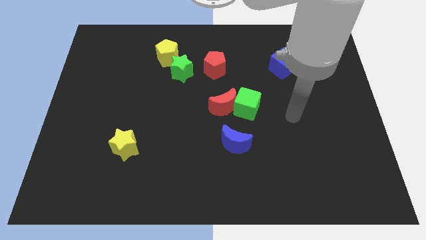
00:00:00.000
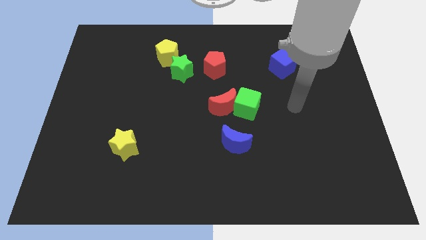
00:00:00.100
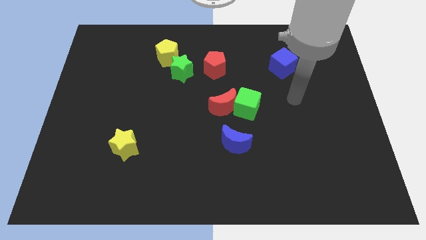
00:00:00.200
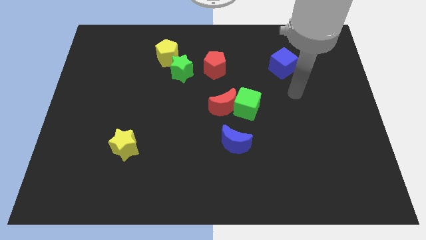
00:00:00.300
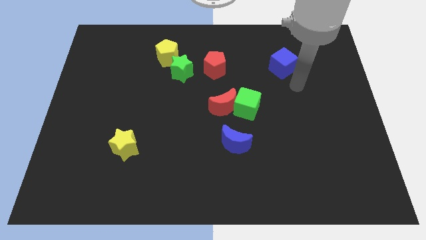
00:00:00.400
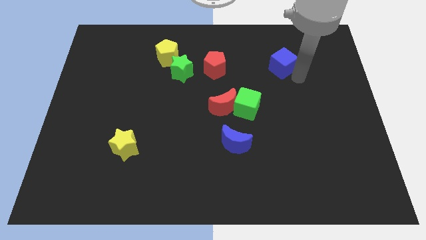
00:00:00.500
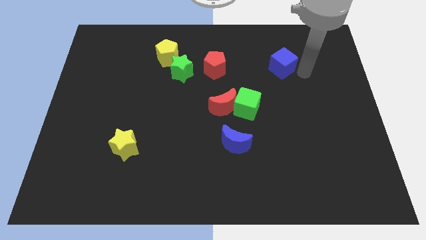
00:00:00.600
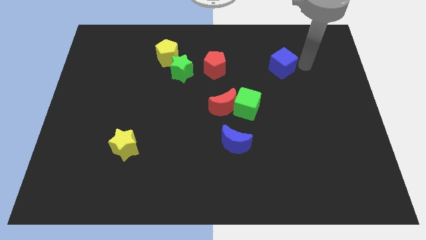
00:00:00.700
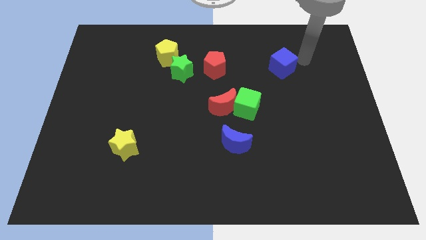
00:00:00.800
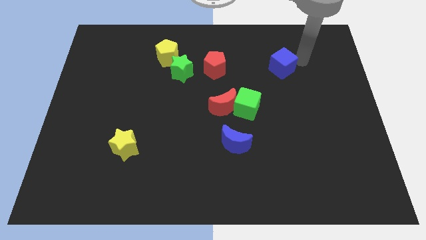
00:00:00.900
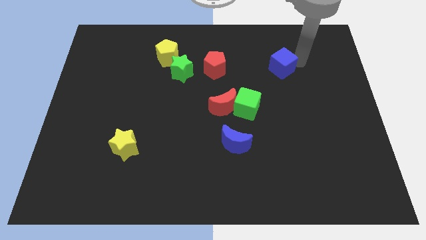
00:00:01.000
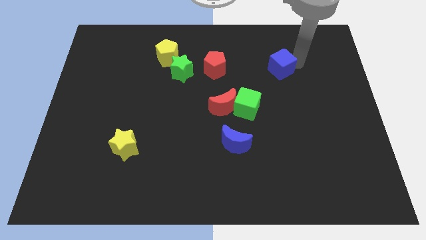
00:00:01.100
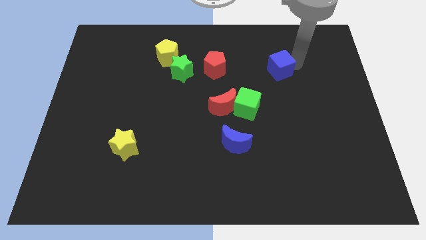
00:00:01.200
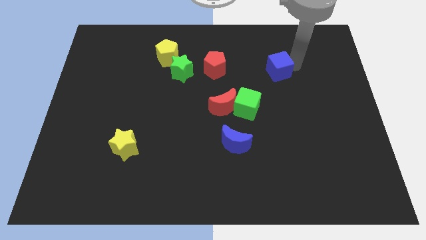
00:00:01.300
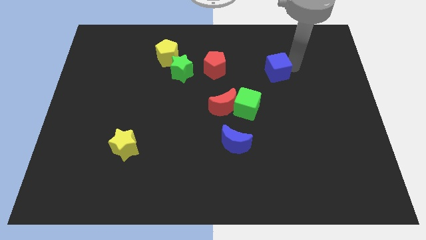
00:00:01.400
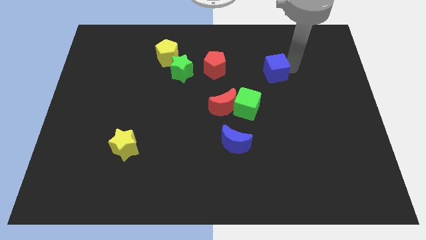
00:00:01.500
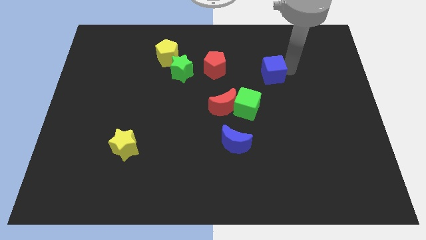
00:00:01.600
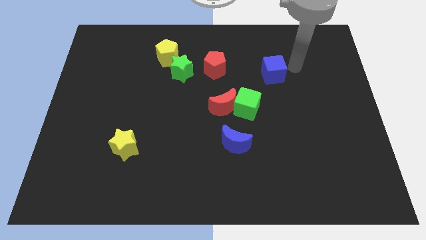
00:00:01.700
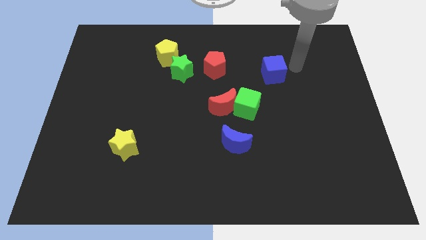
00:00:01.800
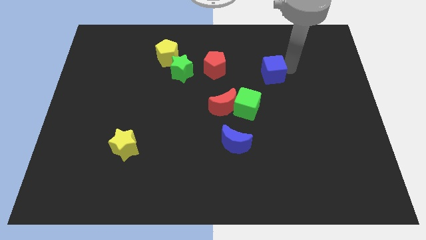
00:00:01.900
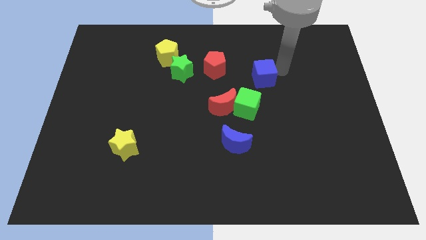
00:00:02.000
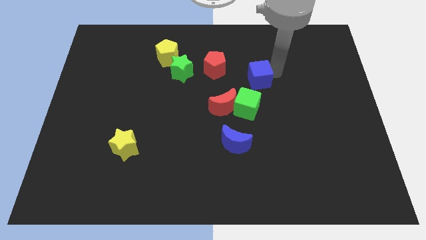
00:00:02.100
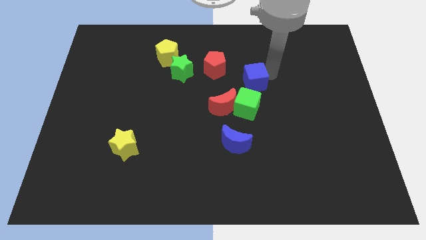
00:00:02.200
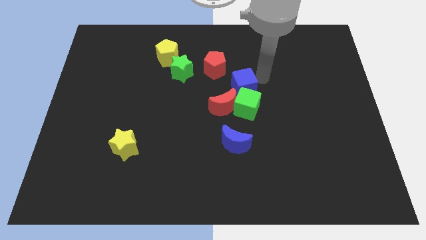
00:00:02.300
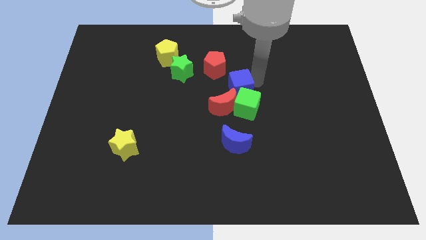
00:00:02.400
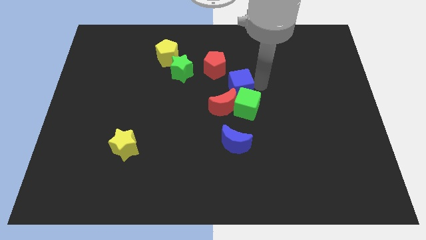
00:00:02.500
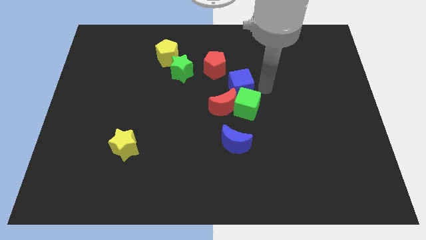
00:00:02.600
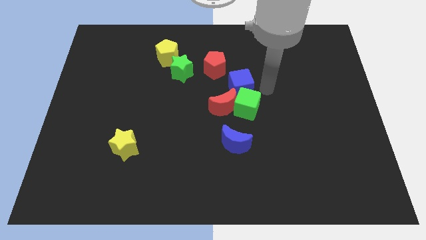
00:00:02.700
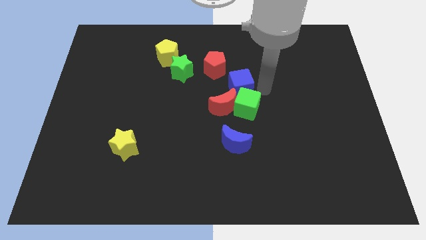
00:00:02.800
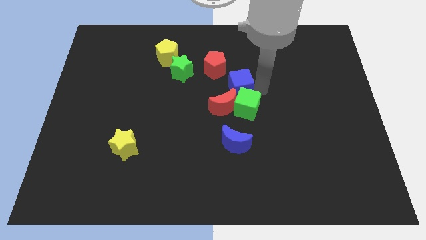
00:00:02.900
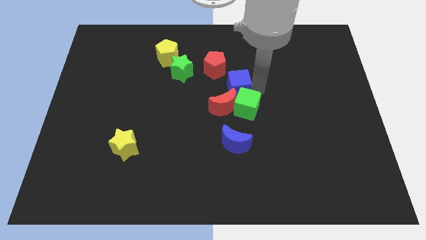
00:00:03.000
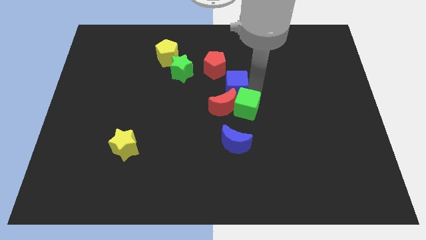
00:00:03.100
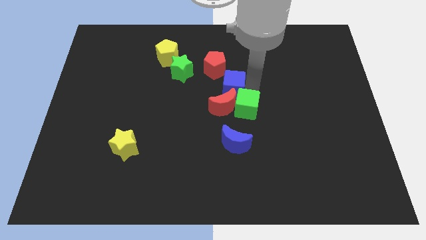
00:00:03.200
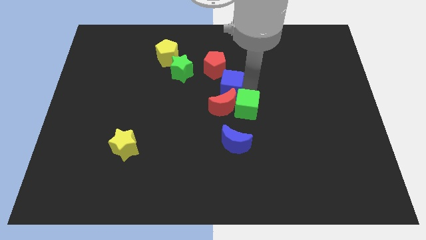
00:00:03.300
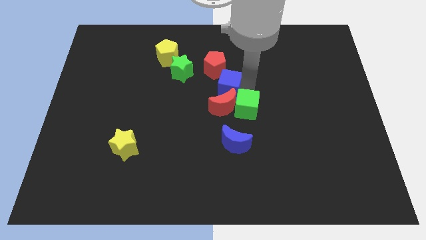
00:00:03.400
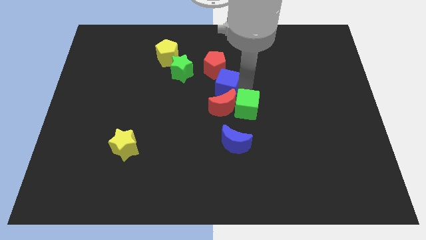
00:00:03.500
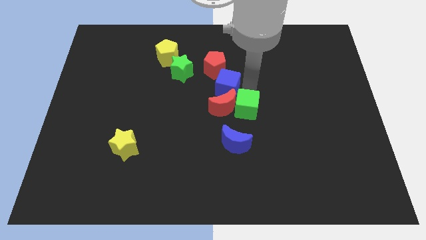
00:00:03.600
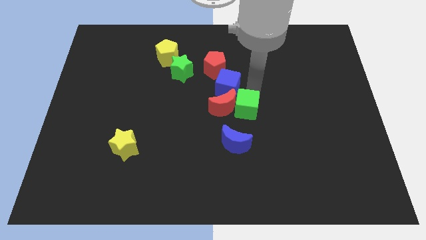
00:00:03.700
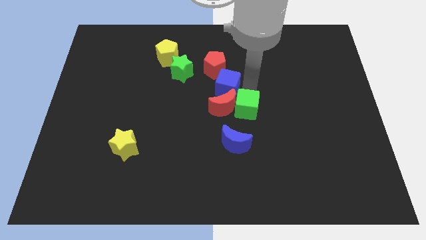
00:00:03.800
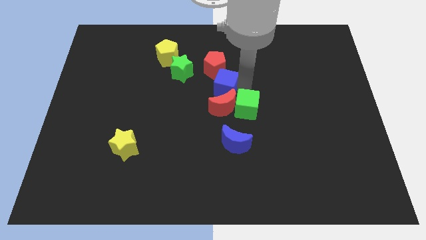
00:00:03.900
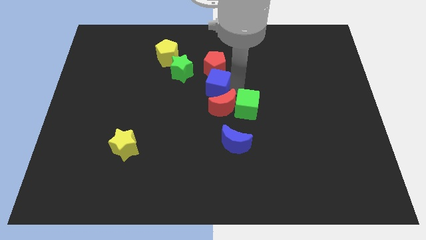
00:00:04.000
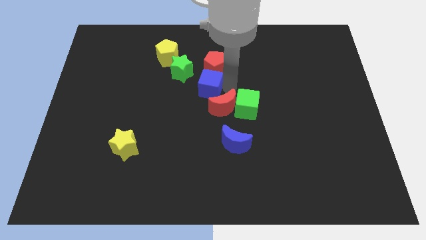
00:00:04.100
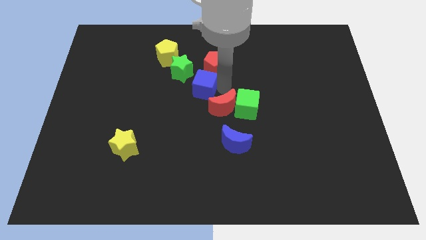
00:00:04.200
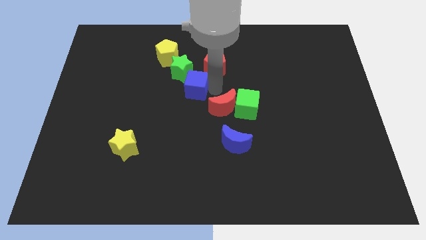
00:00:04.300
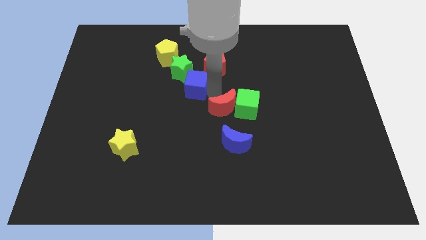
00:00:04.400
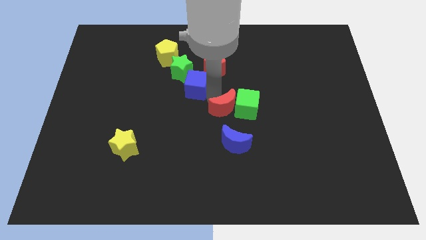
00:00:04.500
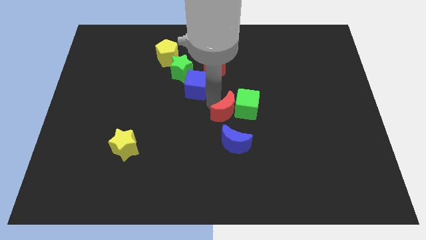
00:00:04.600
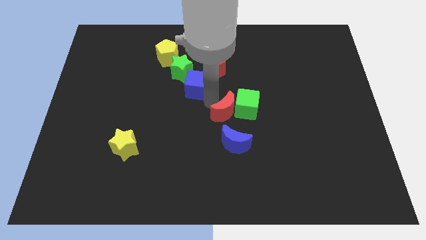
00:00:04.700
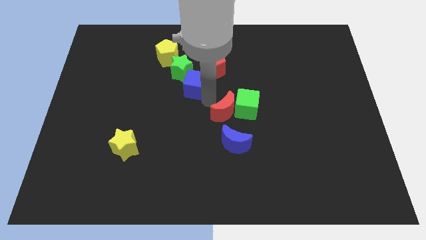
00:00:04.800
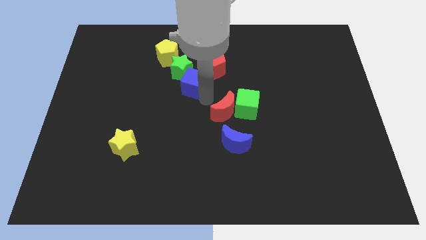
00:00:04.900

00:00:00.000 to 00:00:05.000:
move the blue cube to the green star
